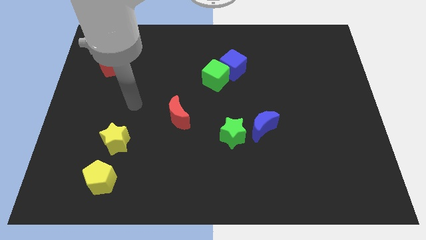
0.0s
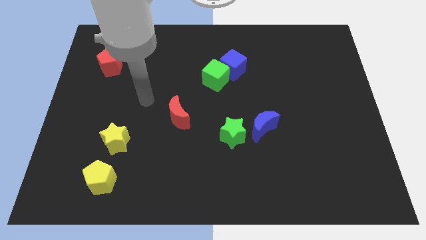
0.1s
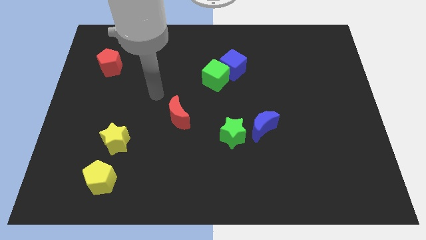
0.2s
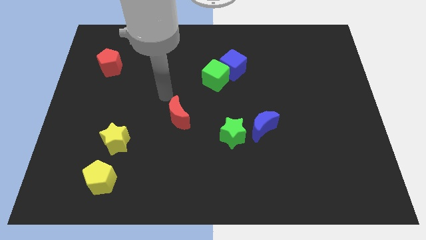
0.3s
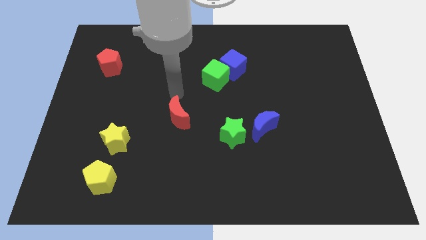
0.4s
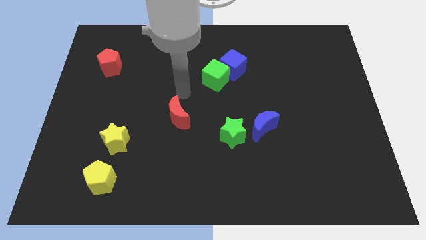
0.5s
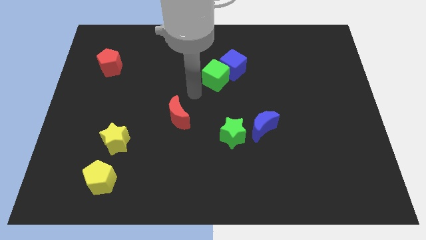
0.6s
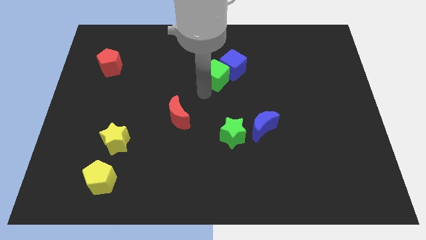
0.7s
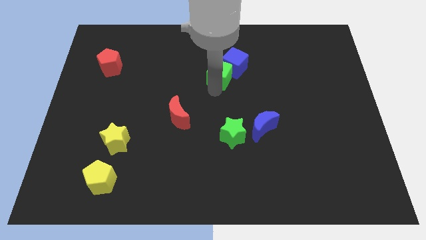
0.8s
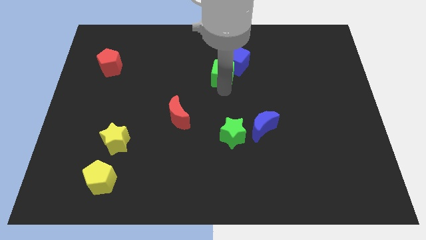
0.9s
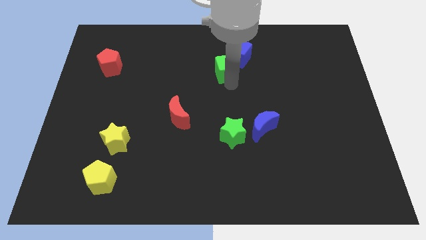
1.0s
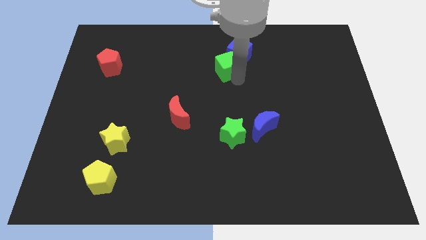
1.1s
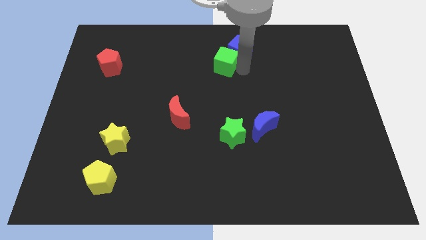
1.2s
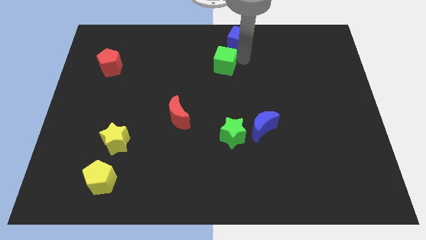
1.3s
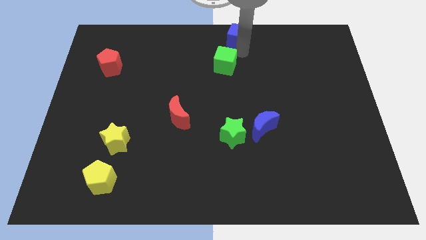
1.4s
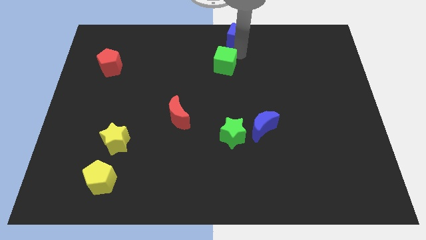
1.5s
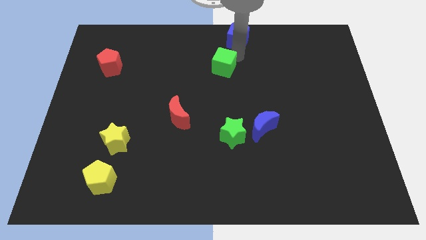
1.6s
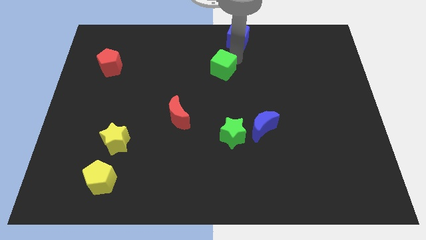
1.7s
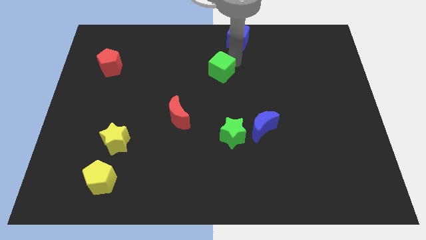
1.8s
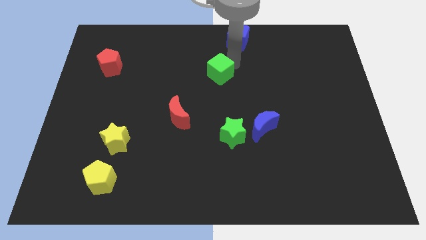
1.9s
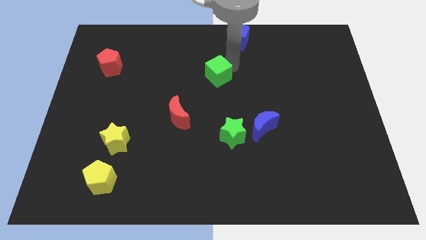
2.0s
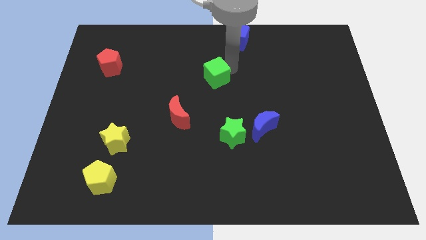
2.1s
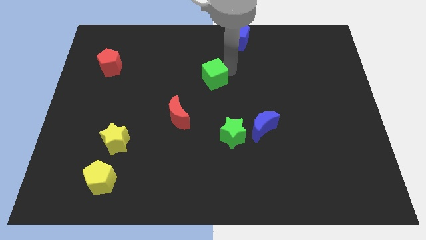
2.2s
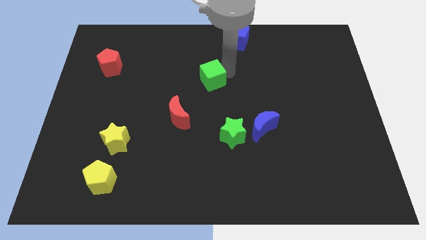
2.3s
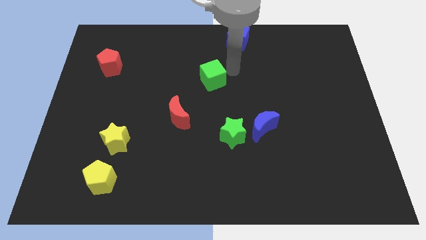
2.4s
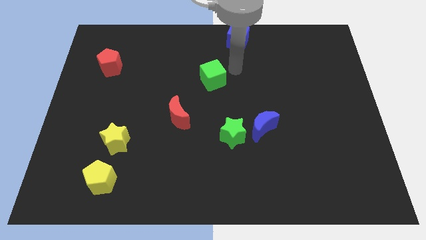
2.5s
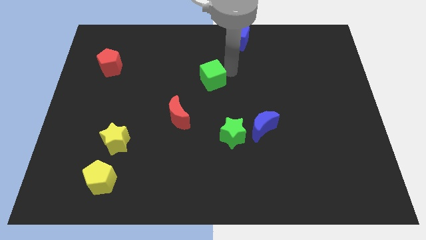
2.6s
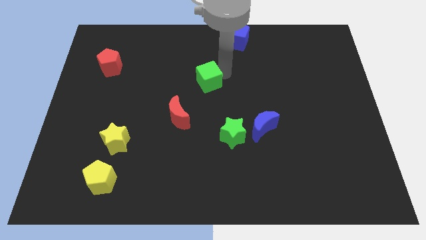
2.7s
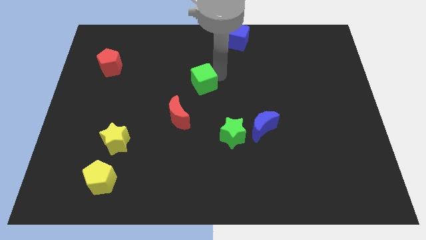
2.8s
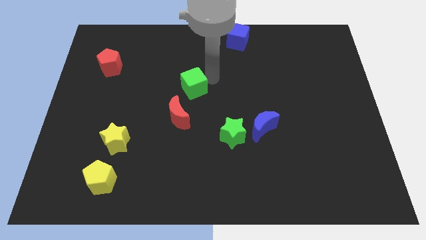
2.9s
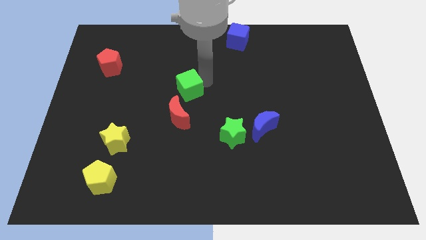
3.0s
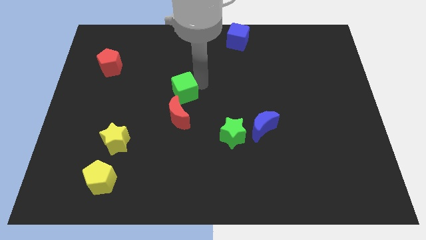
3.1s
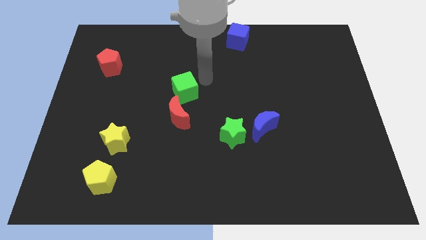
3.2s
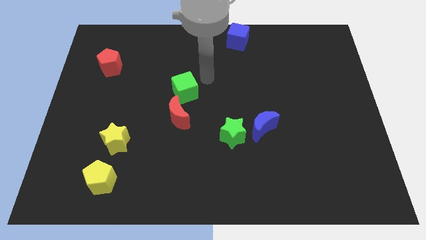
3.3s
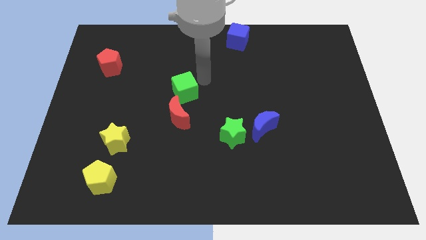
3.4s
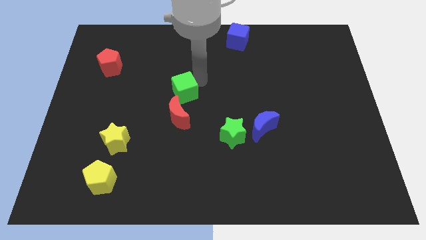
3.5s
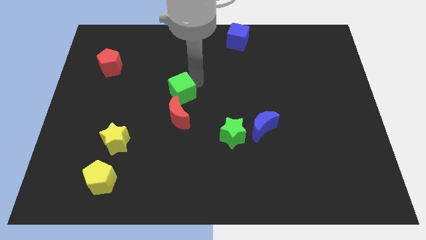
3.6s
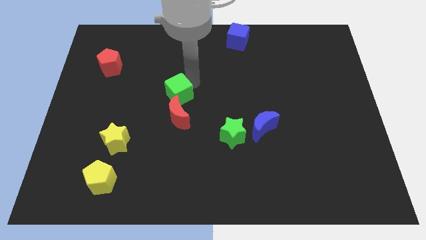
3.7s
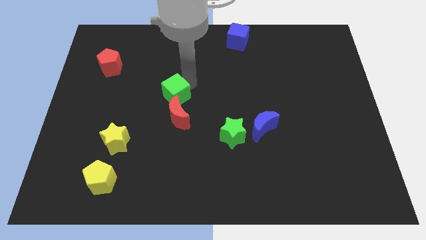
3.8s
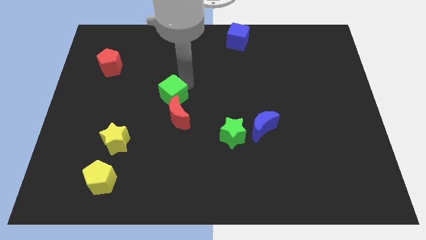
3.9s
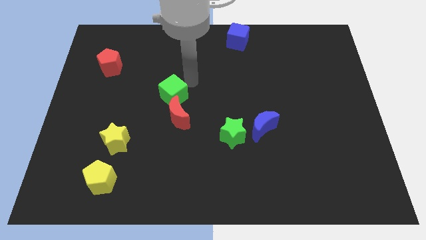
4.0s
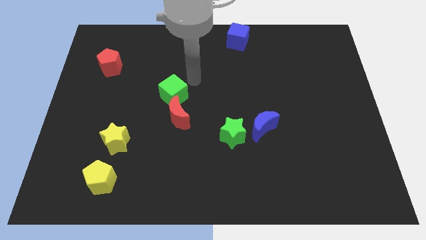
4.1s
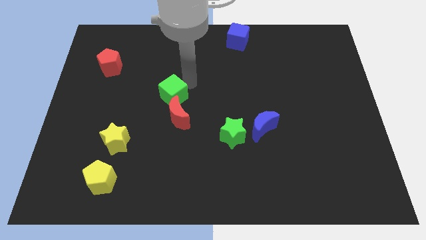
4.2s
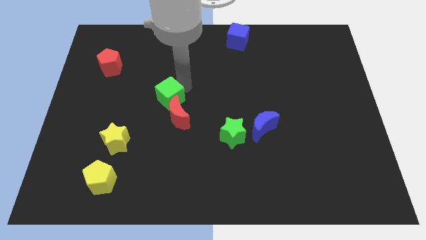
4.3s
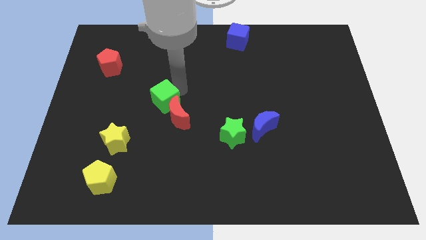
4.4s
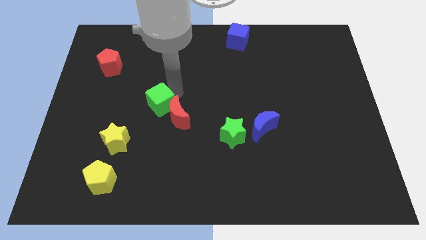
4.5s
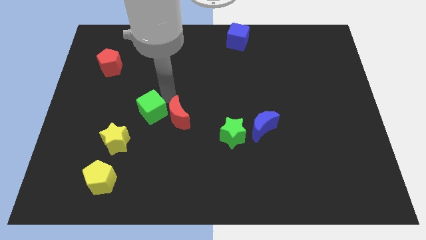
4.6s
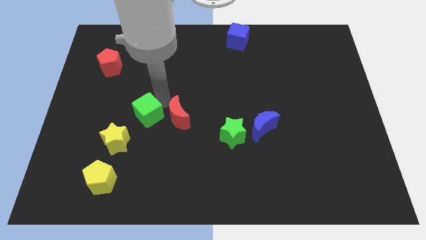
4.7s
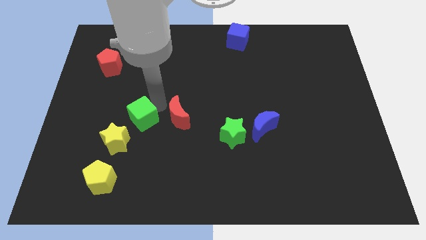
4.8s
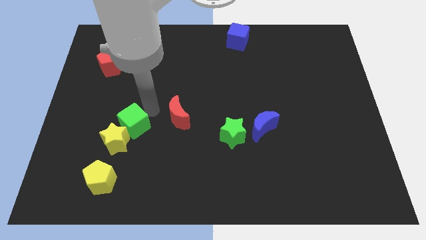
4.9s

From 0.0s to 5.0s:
put the green cube to the yellow star

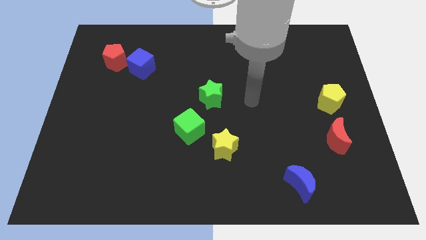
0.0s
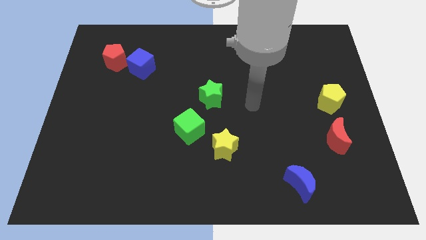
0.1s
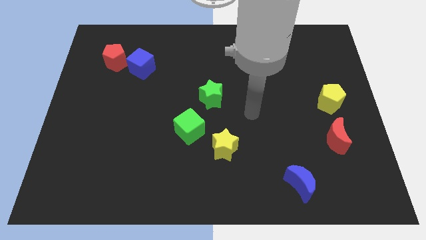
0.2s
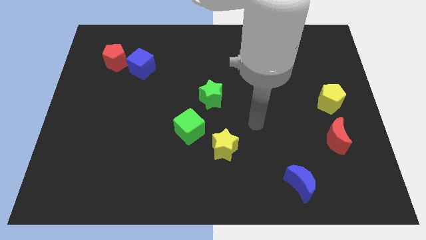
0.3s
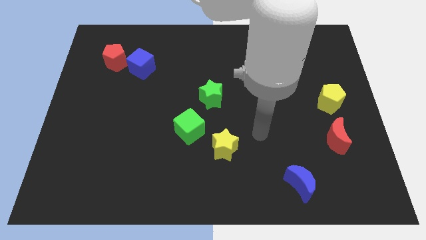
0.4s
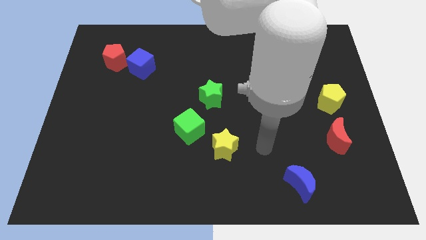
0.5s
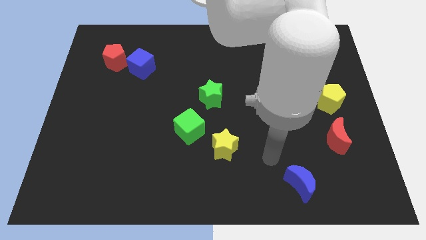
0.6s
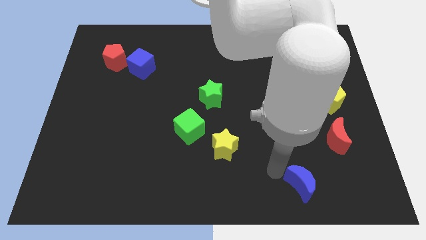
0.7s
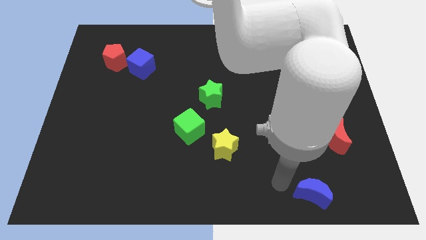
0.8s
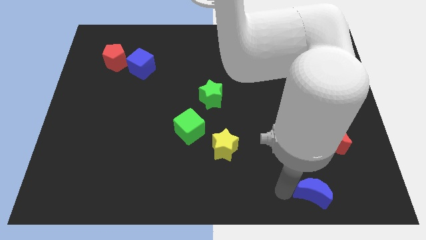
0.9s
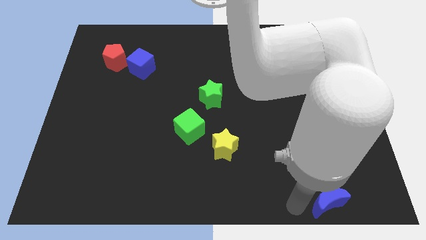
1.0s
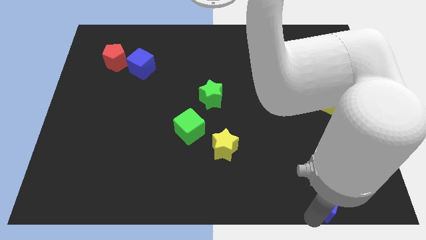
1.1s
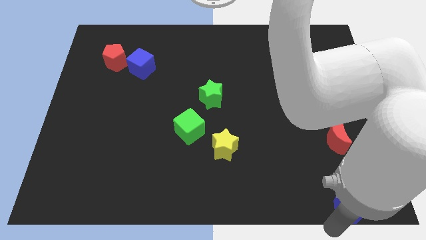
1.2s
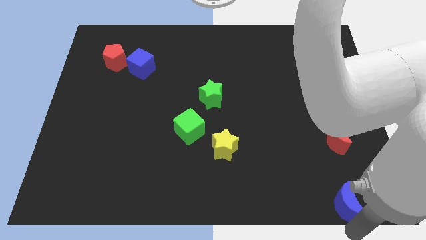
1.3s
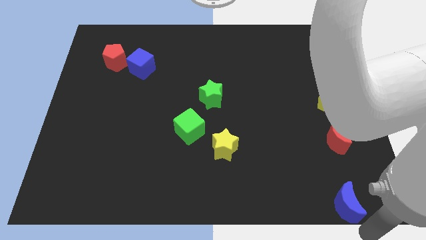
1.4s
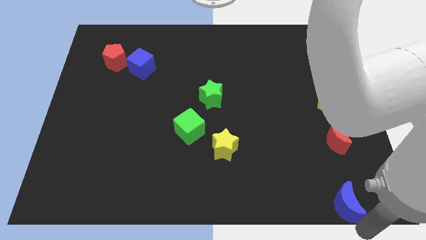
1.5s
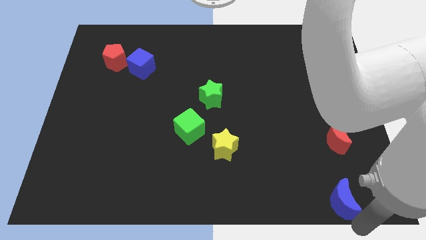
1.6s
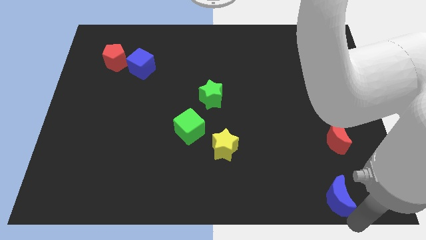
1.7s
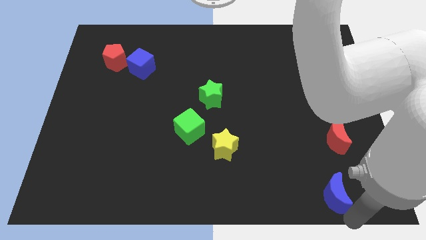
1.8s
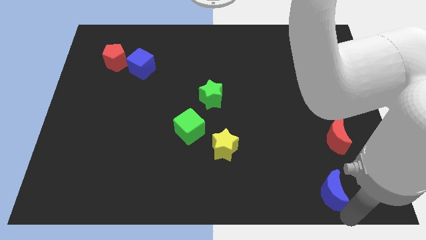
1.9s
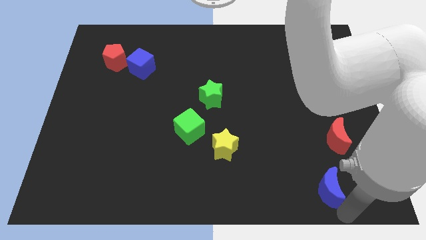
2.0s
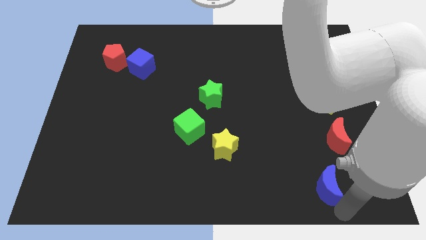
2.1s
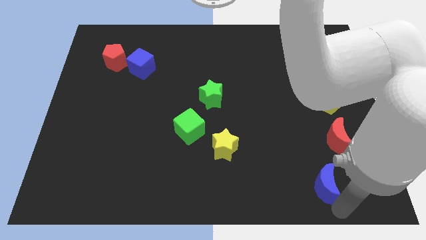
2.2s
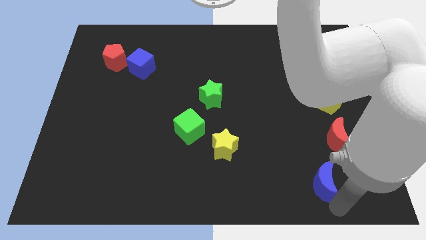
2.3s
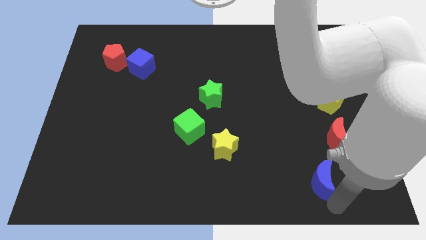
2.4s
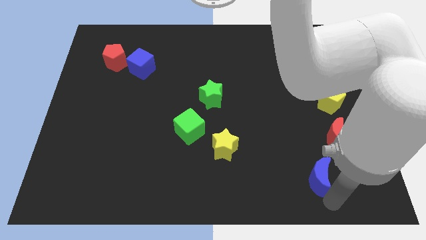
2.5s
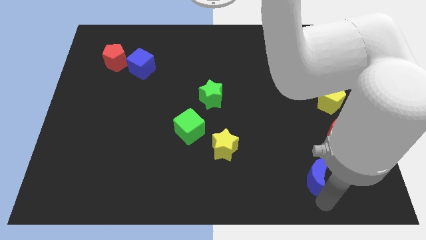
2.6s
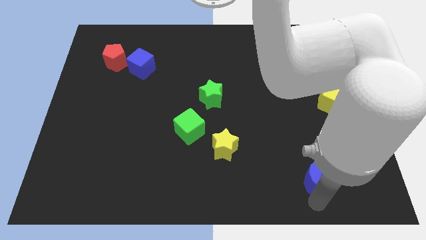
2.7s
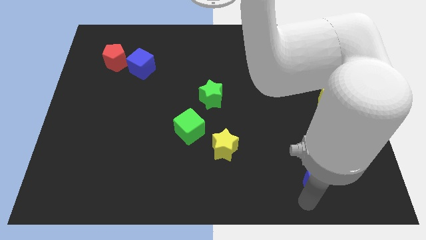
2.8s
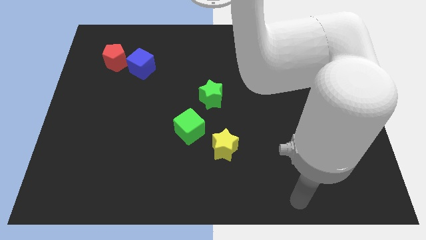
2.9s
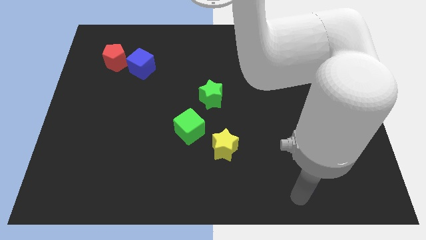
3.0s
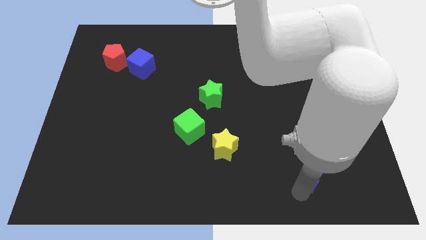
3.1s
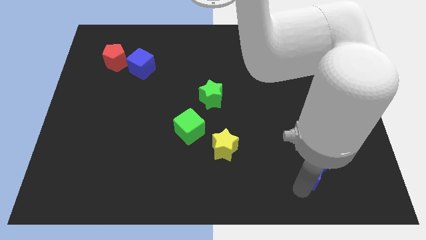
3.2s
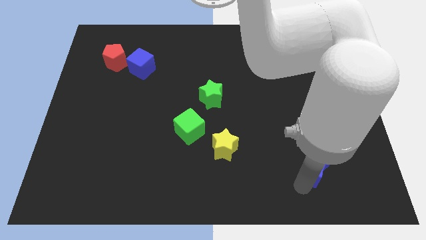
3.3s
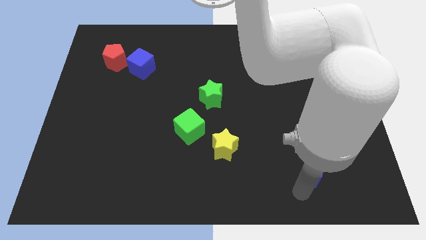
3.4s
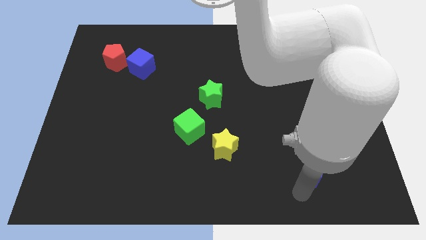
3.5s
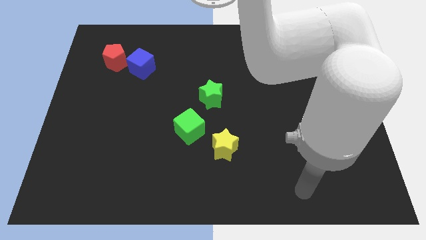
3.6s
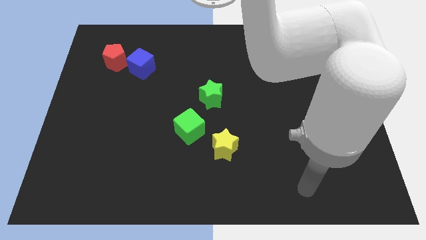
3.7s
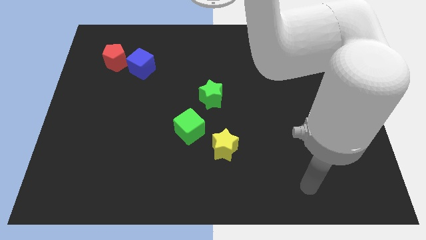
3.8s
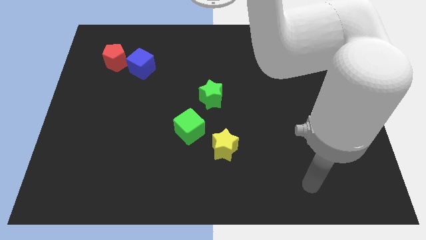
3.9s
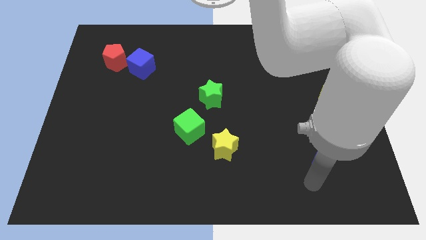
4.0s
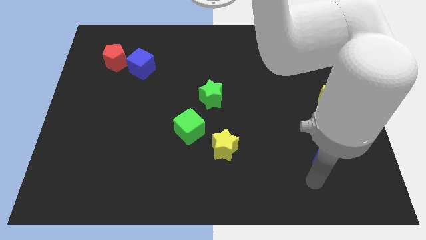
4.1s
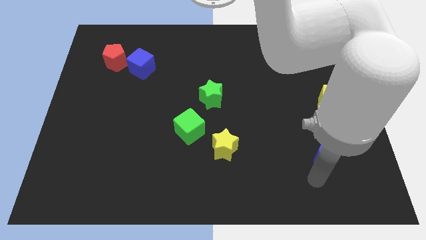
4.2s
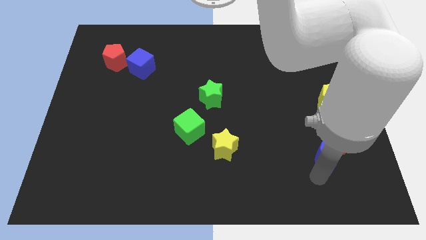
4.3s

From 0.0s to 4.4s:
put the blue moon next to the red moon
